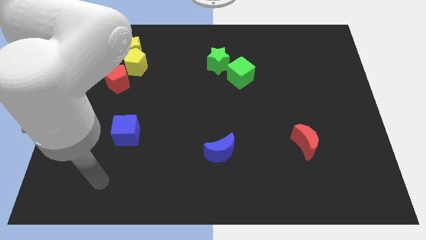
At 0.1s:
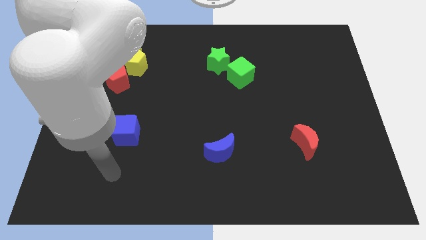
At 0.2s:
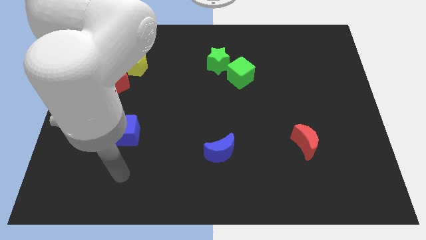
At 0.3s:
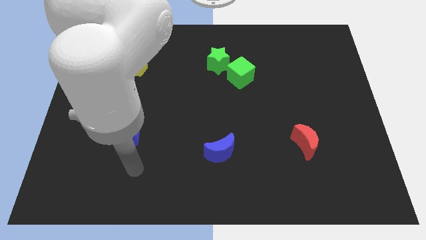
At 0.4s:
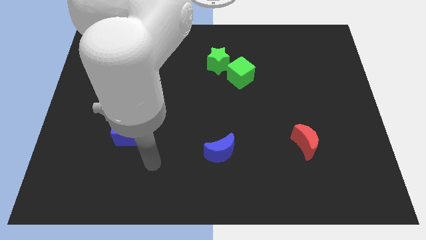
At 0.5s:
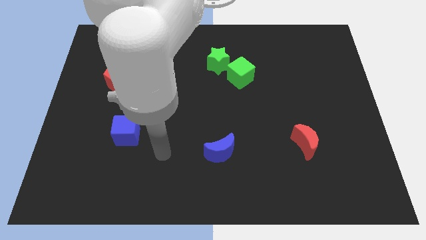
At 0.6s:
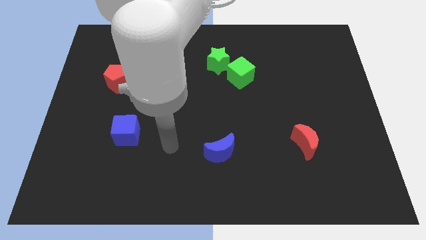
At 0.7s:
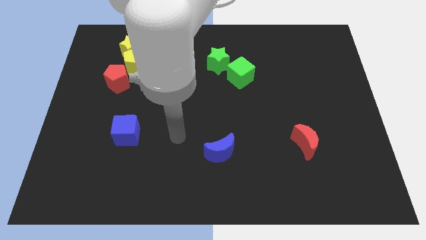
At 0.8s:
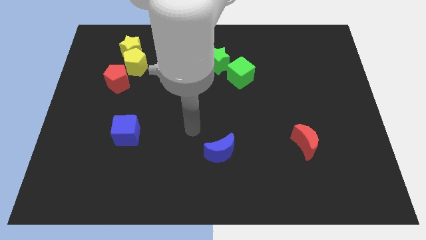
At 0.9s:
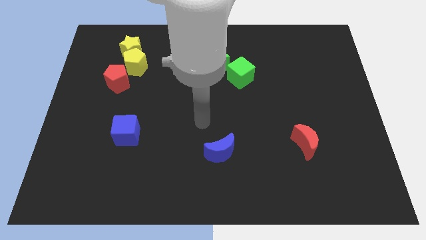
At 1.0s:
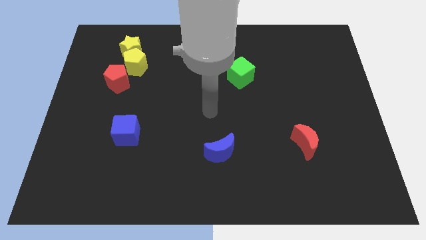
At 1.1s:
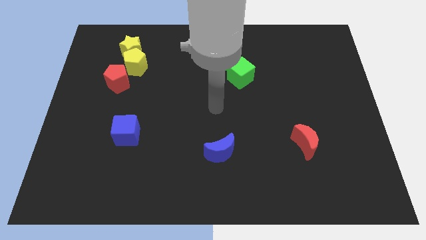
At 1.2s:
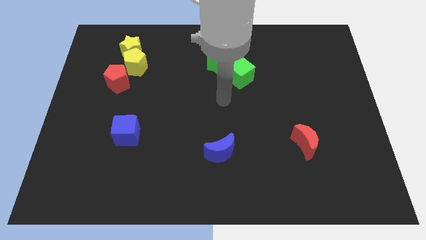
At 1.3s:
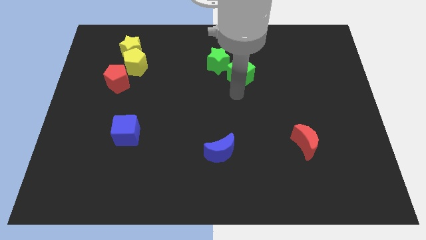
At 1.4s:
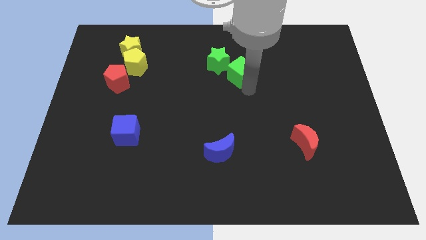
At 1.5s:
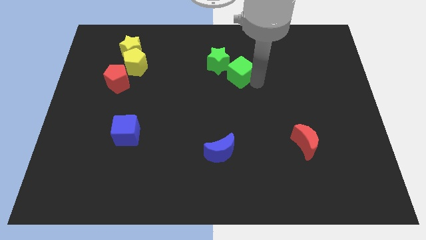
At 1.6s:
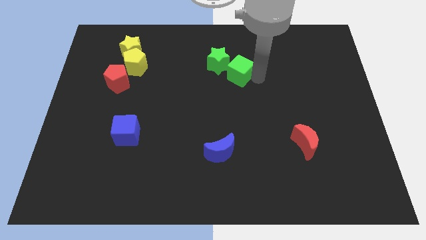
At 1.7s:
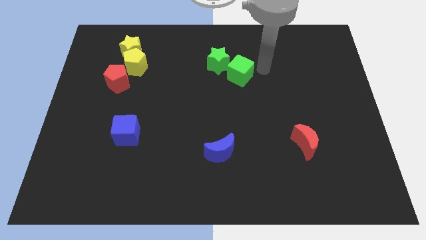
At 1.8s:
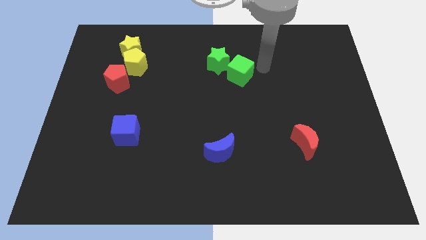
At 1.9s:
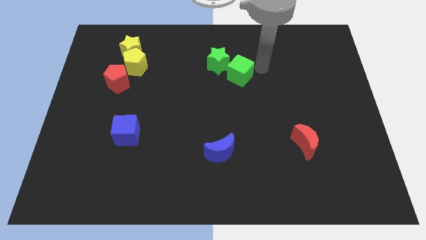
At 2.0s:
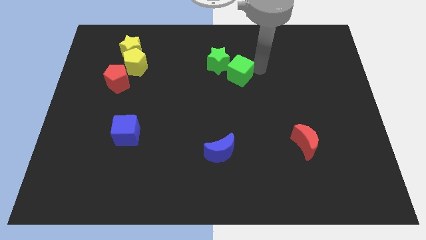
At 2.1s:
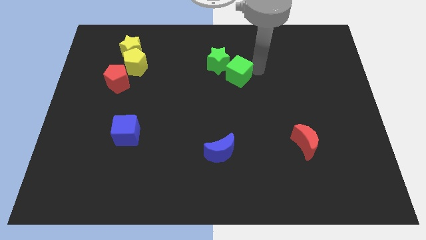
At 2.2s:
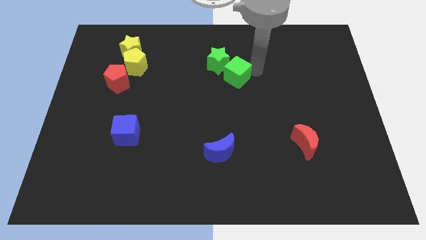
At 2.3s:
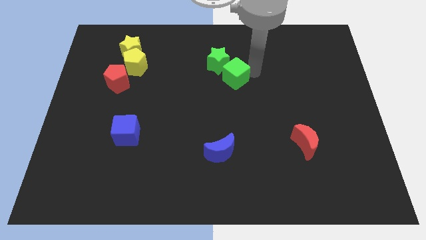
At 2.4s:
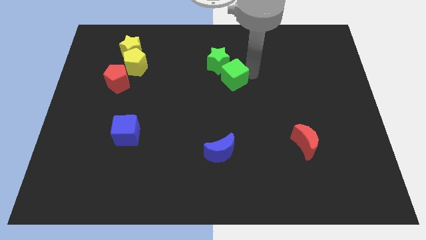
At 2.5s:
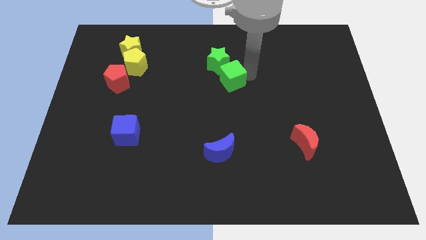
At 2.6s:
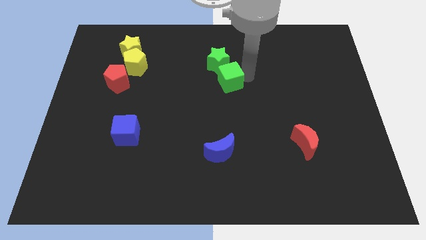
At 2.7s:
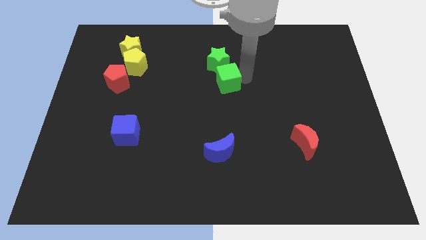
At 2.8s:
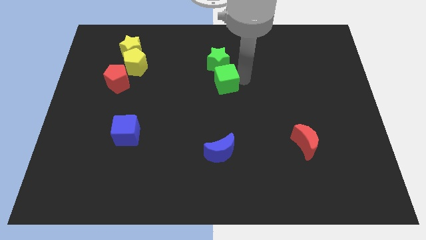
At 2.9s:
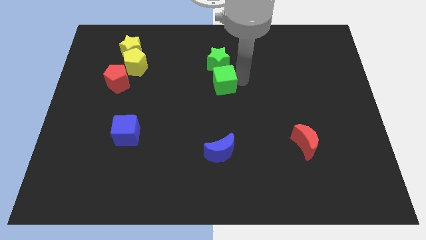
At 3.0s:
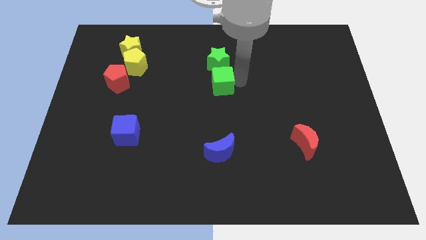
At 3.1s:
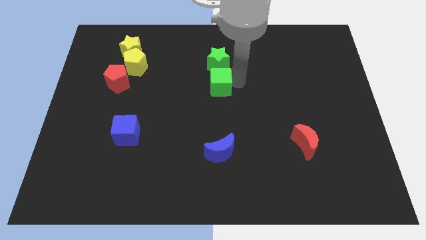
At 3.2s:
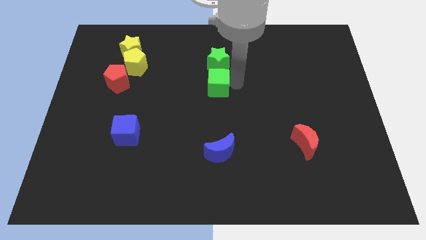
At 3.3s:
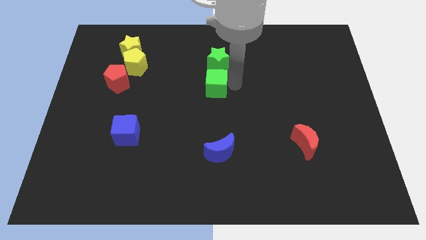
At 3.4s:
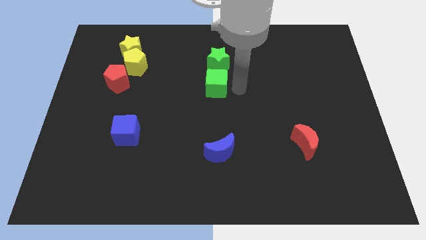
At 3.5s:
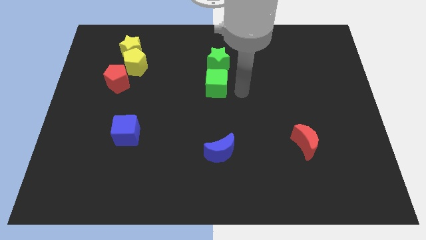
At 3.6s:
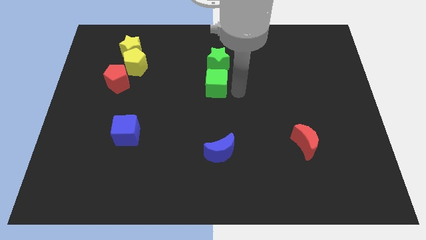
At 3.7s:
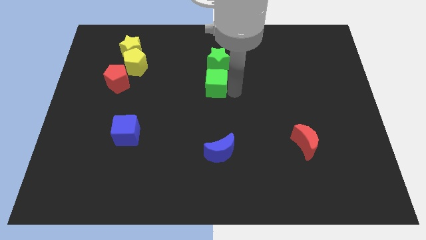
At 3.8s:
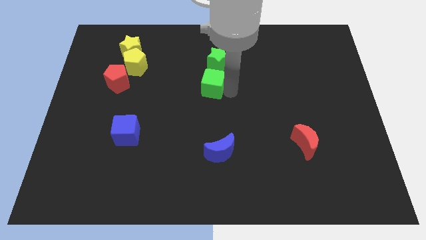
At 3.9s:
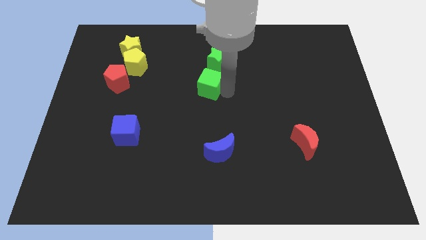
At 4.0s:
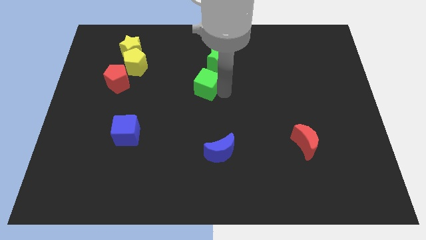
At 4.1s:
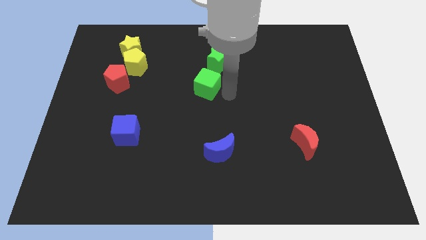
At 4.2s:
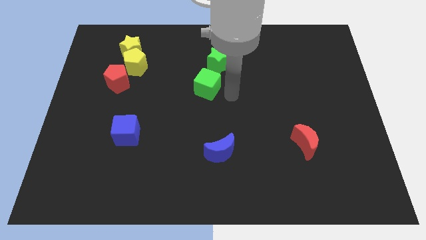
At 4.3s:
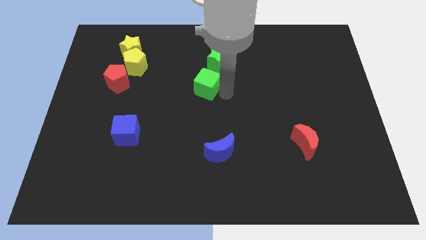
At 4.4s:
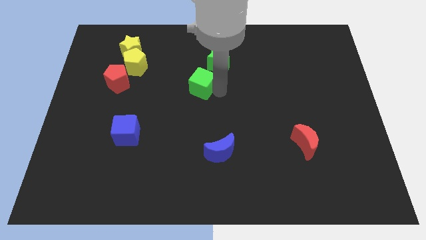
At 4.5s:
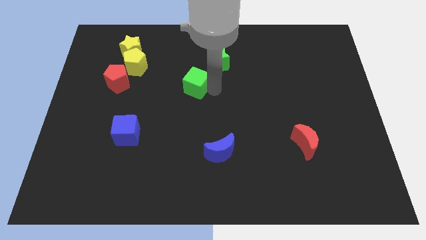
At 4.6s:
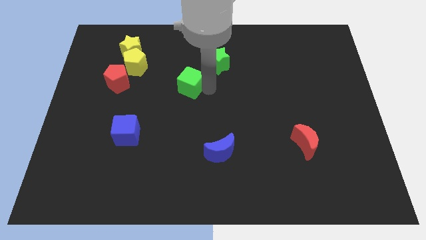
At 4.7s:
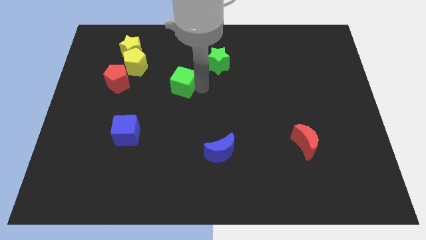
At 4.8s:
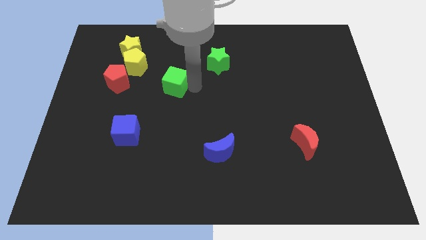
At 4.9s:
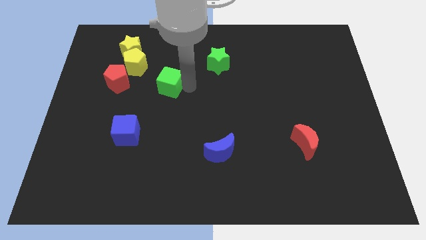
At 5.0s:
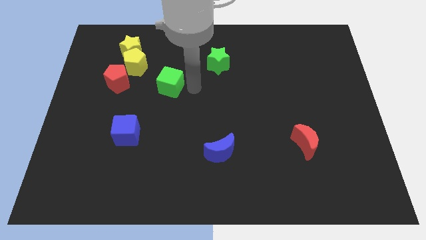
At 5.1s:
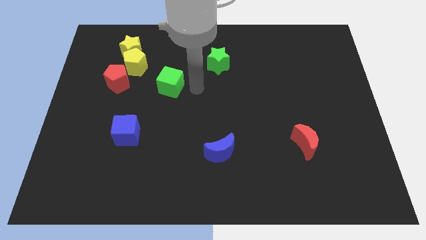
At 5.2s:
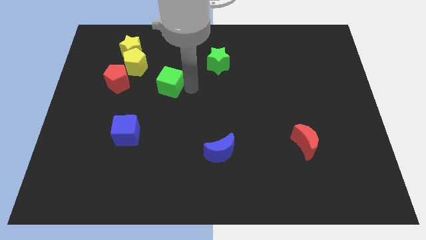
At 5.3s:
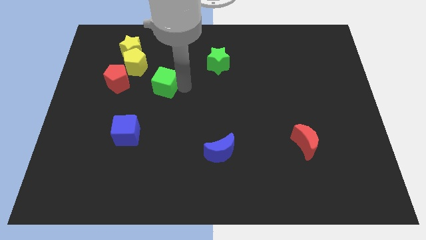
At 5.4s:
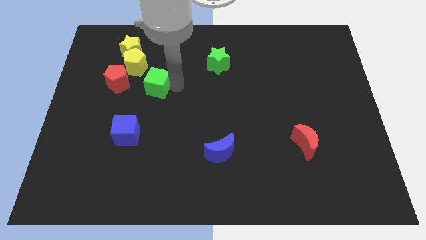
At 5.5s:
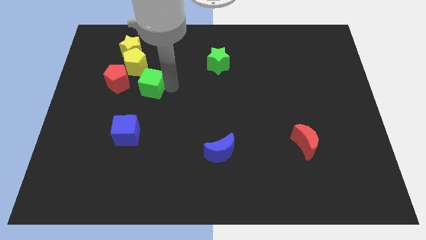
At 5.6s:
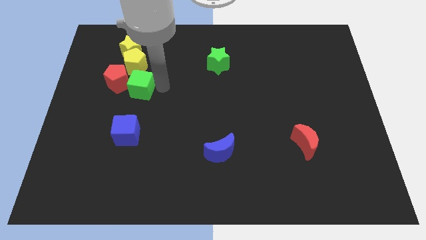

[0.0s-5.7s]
put the green cube towards the red pentagon

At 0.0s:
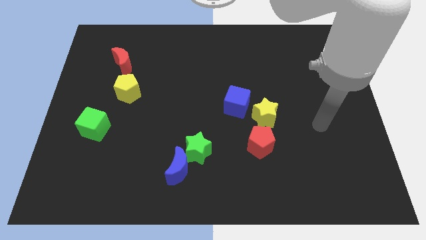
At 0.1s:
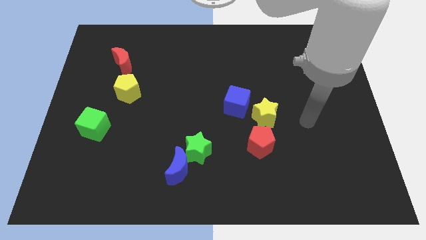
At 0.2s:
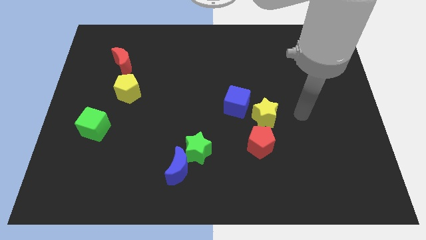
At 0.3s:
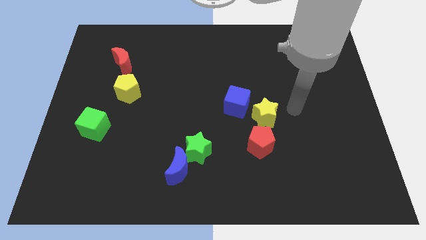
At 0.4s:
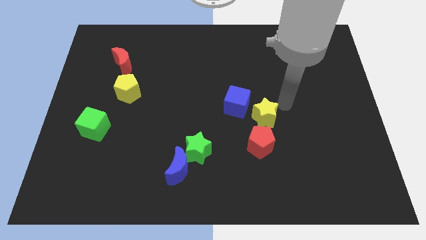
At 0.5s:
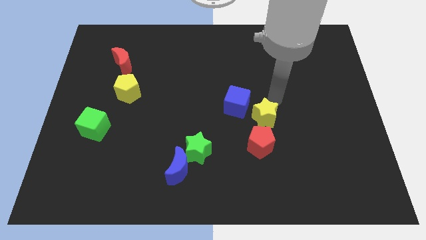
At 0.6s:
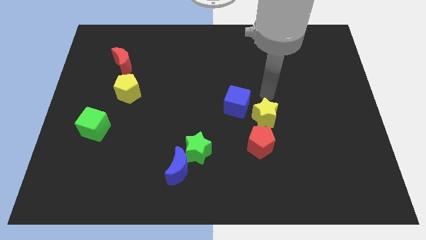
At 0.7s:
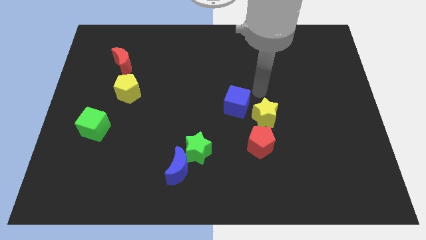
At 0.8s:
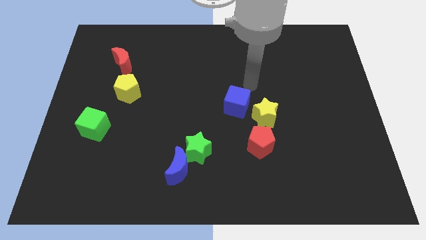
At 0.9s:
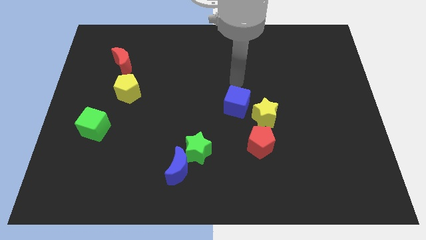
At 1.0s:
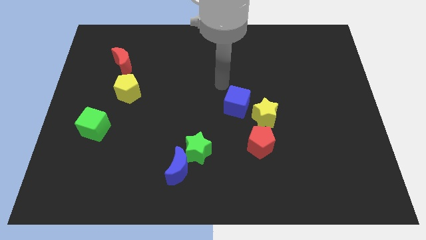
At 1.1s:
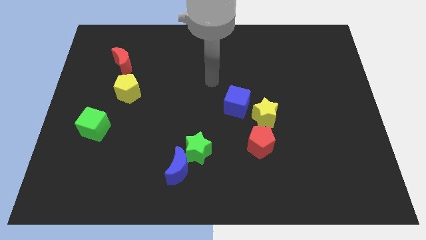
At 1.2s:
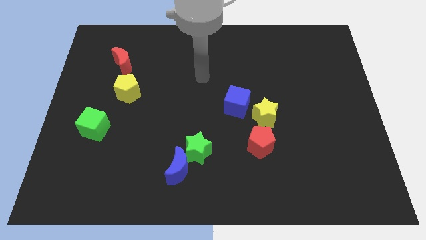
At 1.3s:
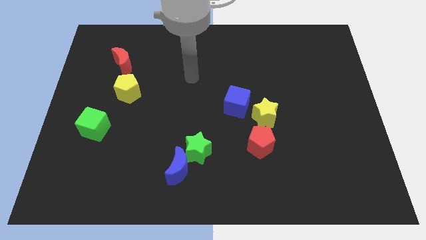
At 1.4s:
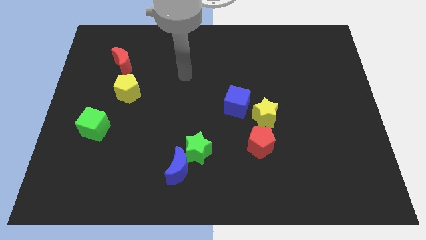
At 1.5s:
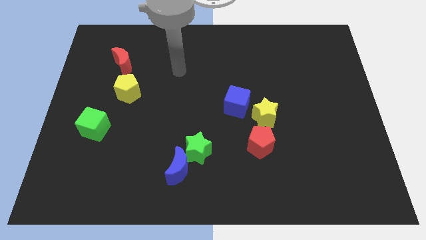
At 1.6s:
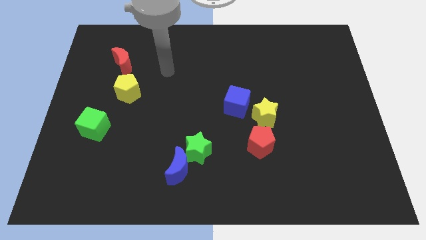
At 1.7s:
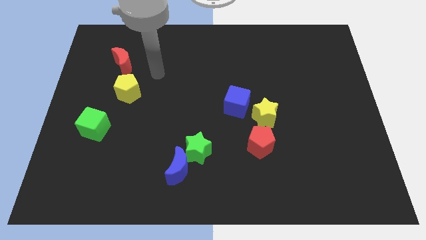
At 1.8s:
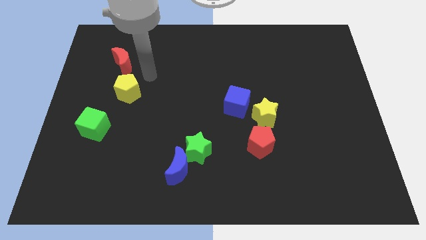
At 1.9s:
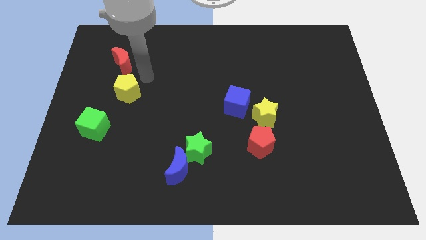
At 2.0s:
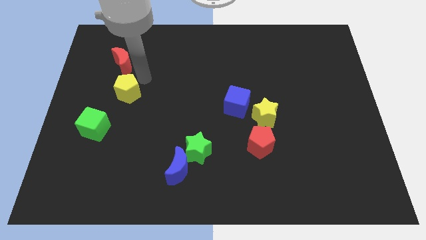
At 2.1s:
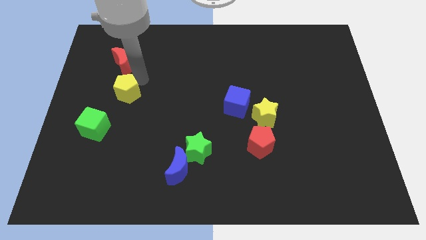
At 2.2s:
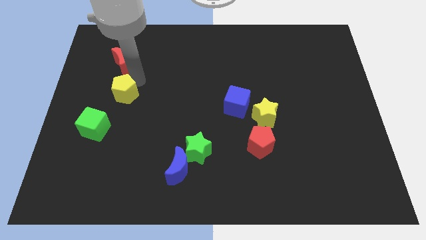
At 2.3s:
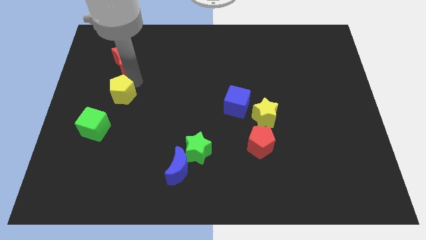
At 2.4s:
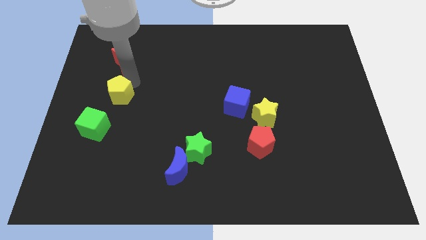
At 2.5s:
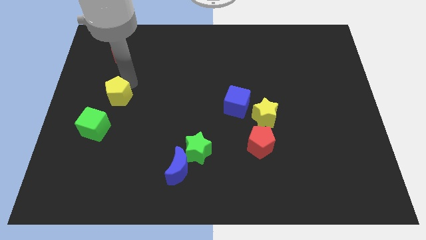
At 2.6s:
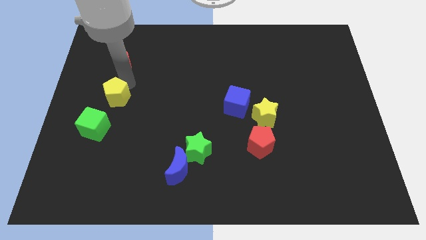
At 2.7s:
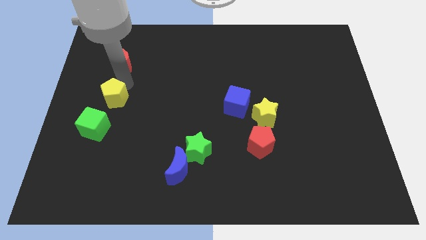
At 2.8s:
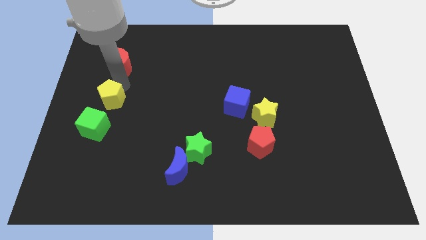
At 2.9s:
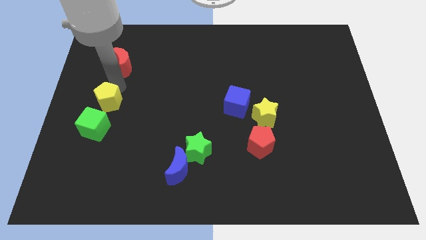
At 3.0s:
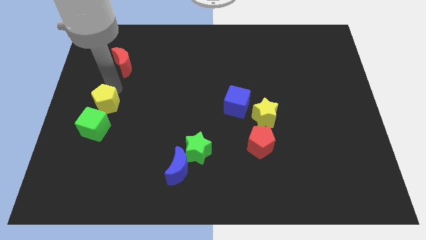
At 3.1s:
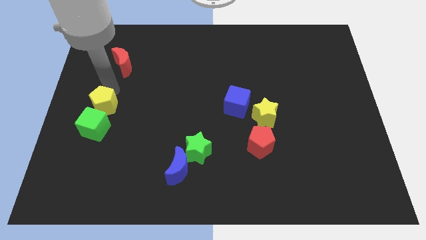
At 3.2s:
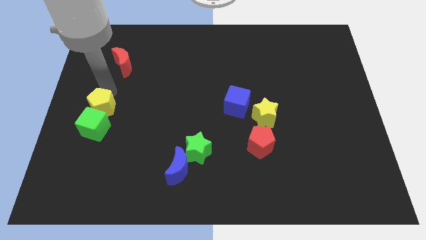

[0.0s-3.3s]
slide the yellow pentagon next to the green cube
